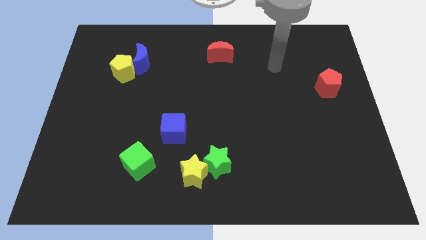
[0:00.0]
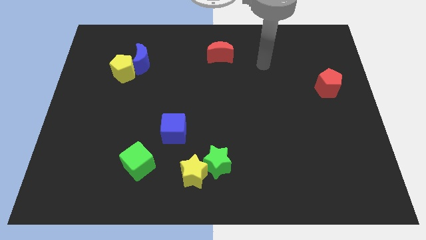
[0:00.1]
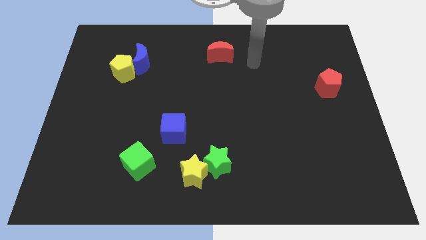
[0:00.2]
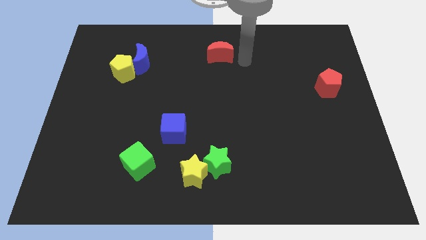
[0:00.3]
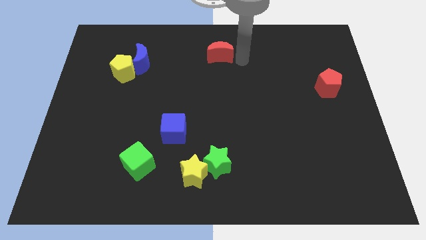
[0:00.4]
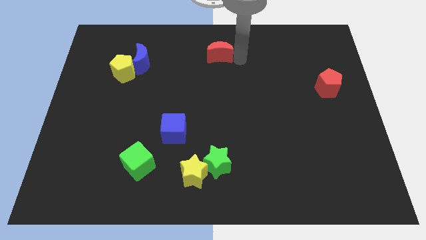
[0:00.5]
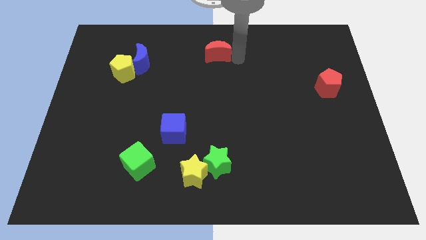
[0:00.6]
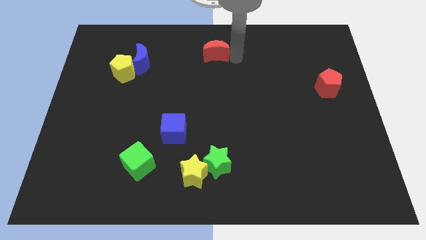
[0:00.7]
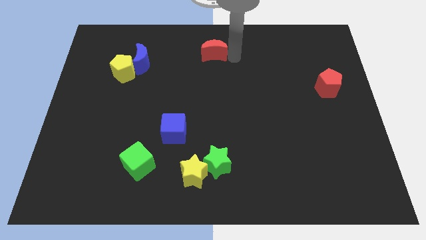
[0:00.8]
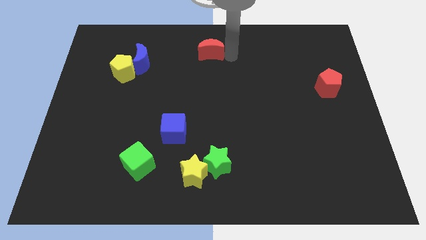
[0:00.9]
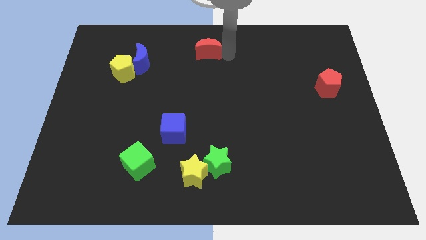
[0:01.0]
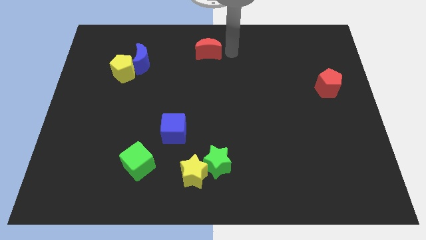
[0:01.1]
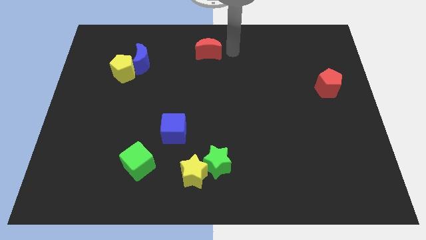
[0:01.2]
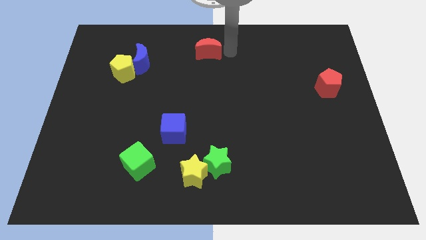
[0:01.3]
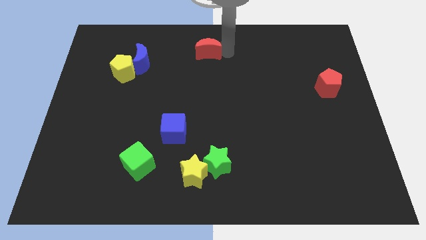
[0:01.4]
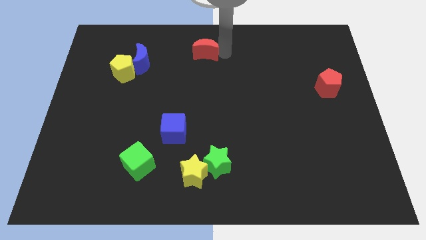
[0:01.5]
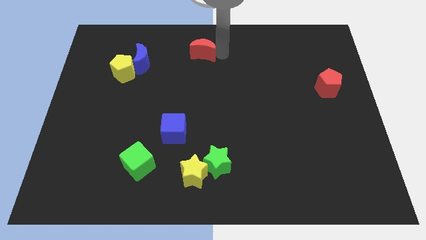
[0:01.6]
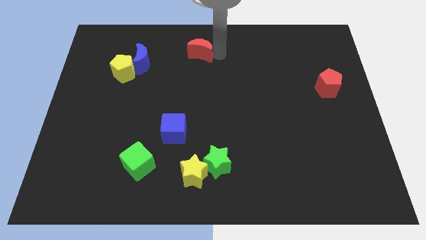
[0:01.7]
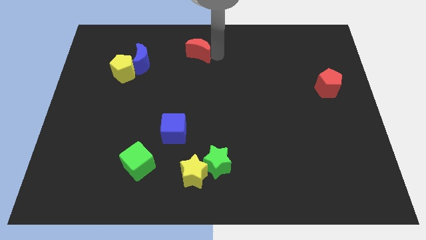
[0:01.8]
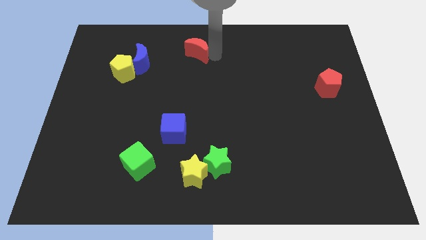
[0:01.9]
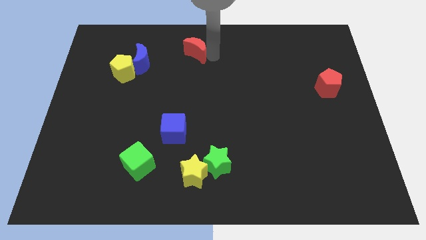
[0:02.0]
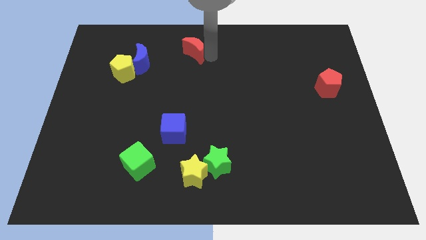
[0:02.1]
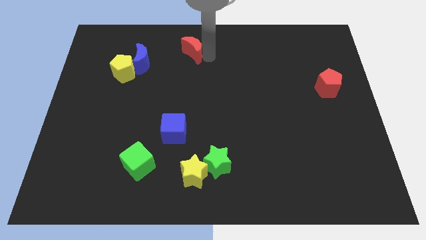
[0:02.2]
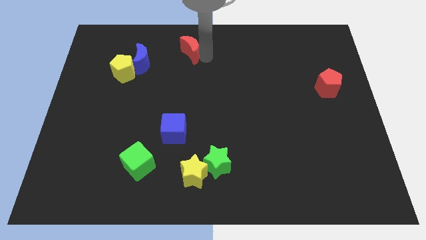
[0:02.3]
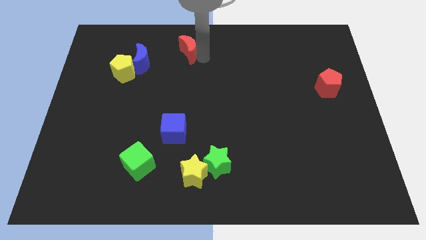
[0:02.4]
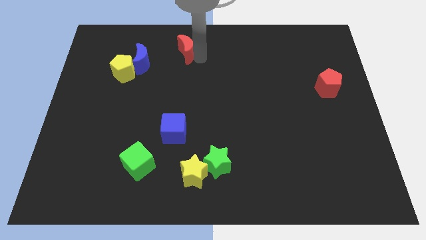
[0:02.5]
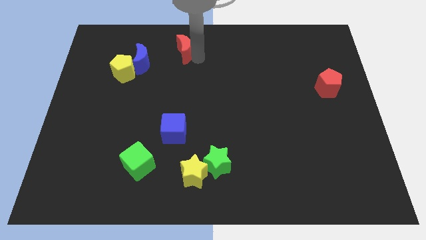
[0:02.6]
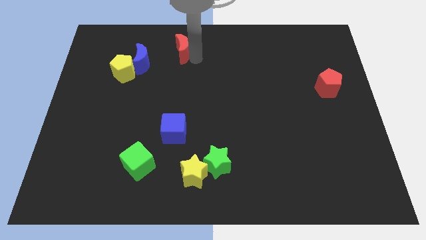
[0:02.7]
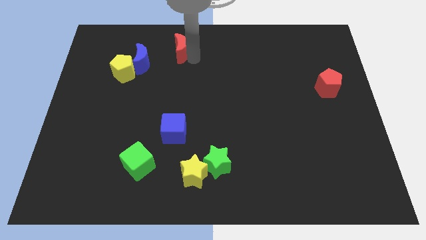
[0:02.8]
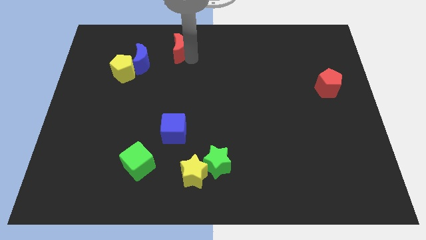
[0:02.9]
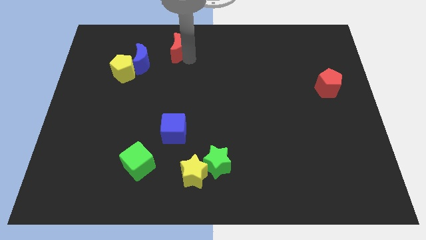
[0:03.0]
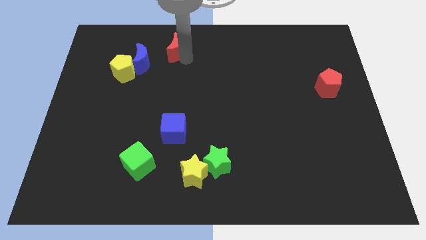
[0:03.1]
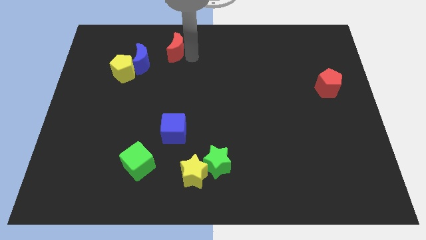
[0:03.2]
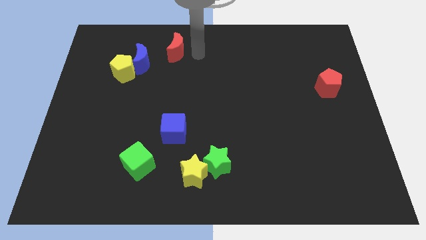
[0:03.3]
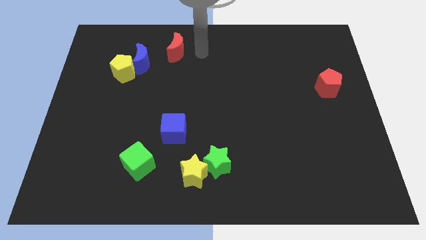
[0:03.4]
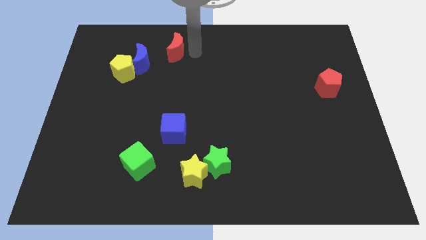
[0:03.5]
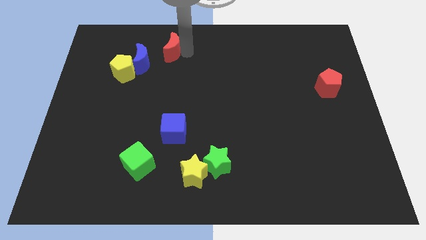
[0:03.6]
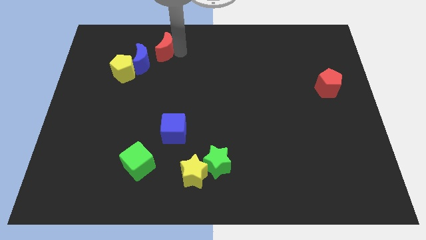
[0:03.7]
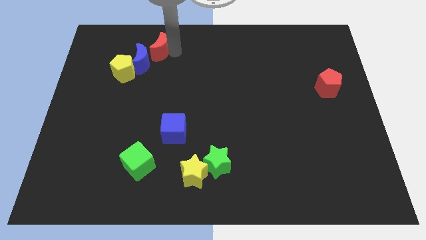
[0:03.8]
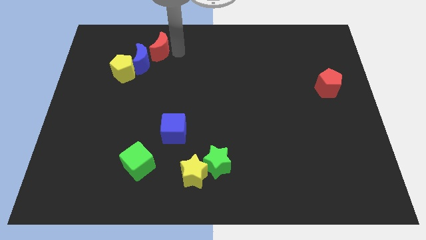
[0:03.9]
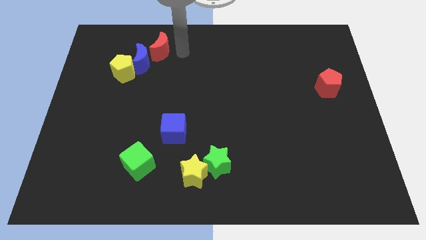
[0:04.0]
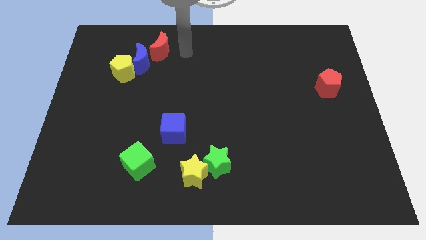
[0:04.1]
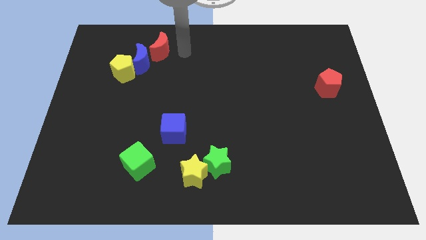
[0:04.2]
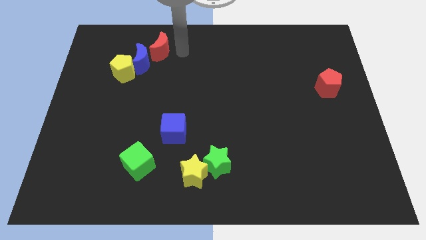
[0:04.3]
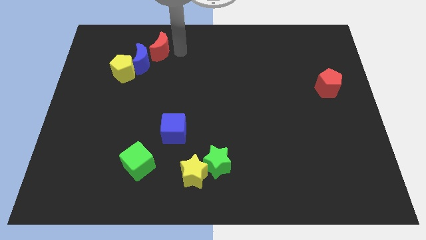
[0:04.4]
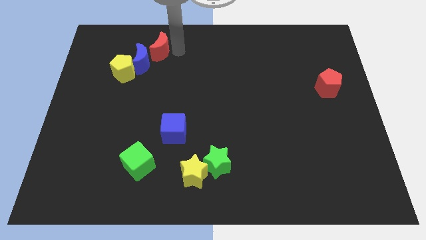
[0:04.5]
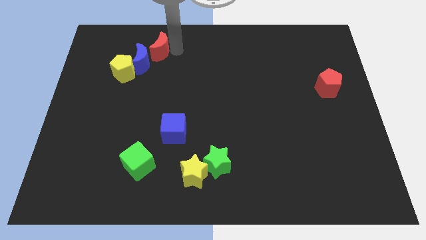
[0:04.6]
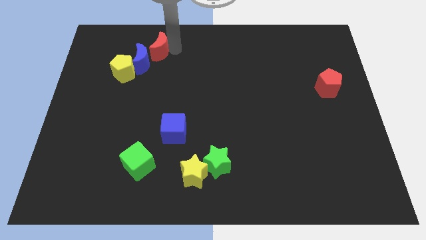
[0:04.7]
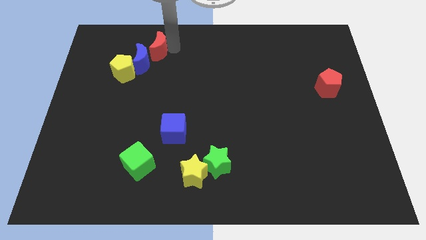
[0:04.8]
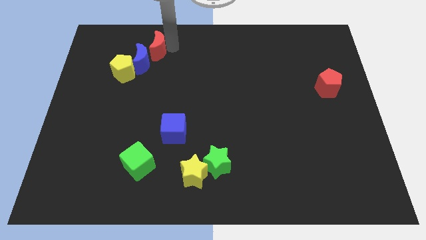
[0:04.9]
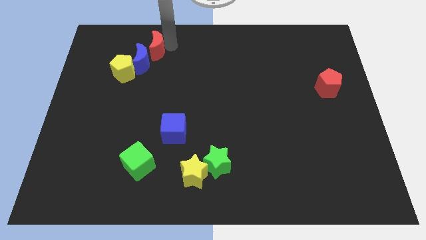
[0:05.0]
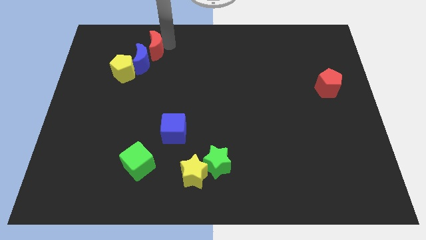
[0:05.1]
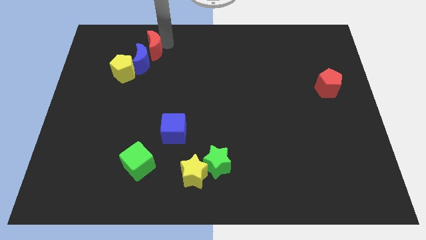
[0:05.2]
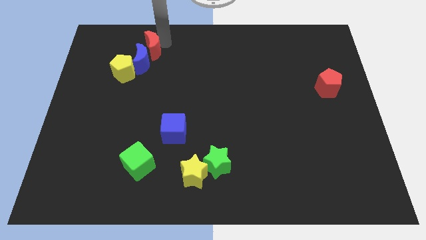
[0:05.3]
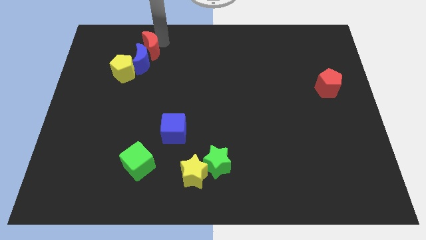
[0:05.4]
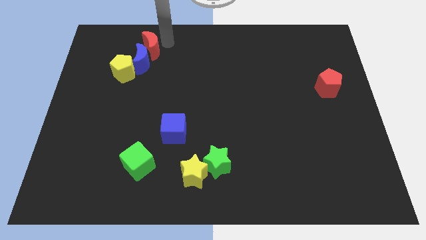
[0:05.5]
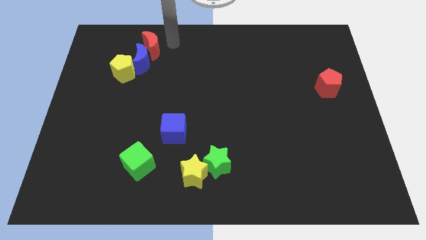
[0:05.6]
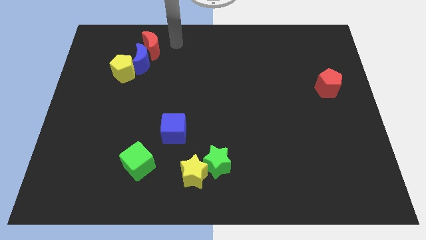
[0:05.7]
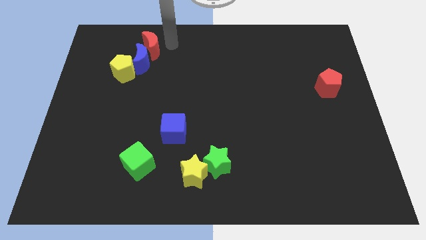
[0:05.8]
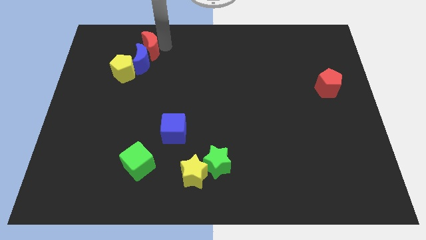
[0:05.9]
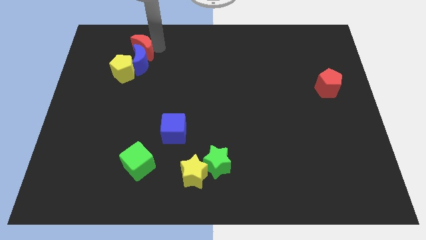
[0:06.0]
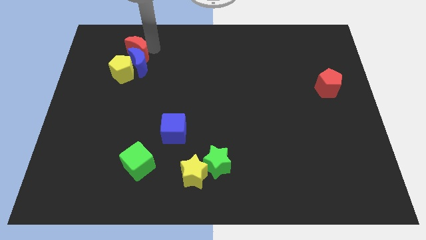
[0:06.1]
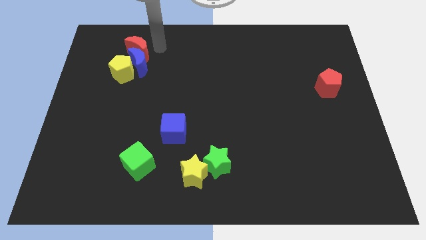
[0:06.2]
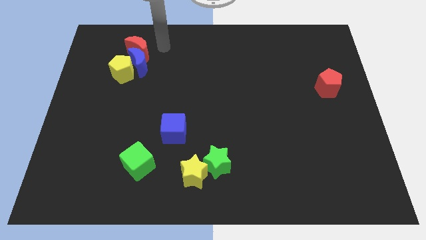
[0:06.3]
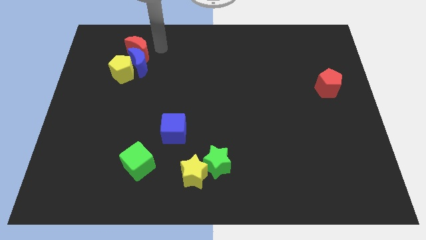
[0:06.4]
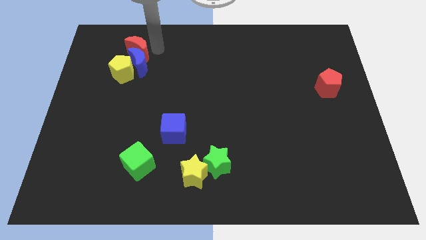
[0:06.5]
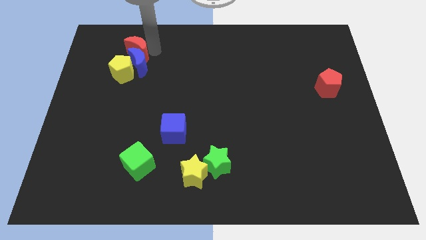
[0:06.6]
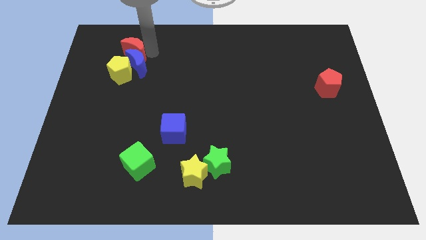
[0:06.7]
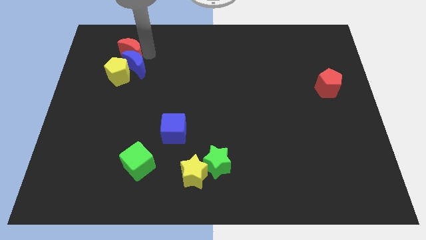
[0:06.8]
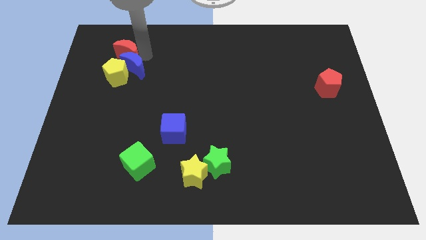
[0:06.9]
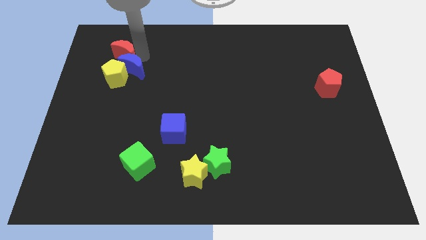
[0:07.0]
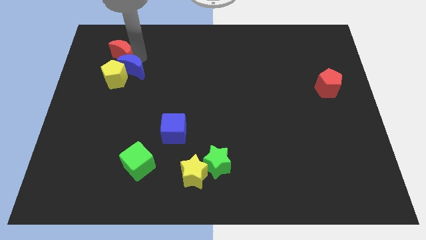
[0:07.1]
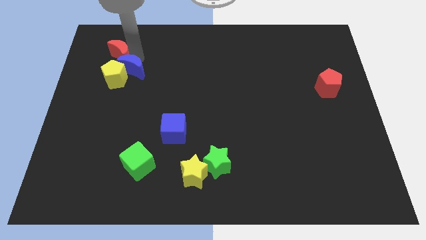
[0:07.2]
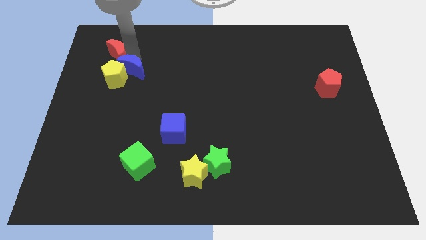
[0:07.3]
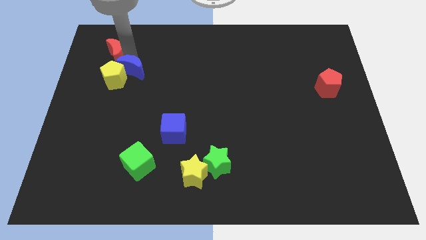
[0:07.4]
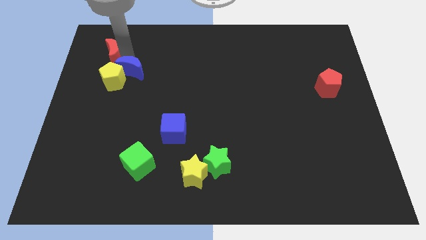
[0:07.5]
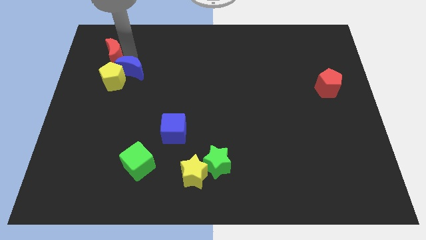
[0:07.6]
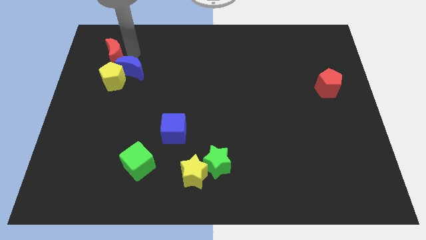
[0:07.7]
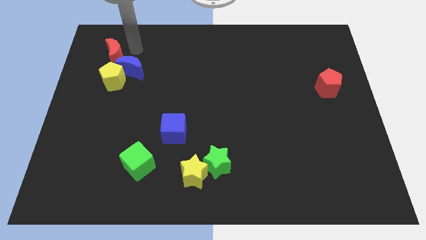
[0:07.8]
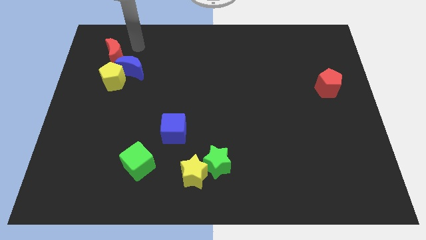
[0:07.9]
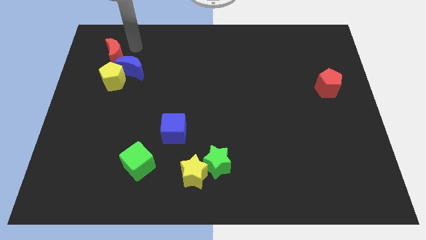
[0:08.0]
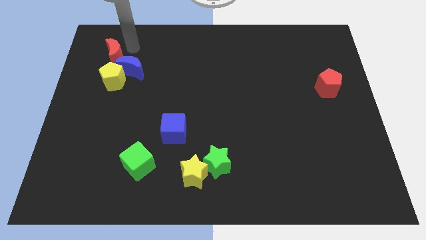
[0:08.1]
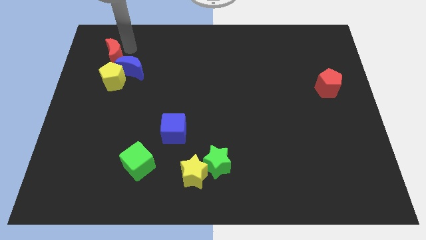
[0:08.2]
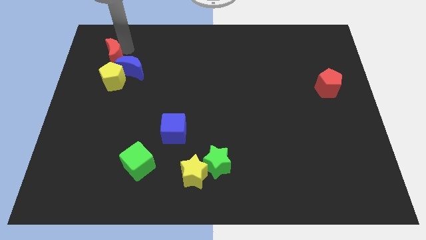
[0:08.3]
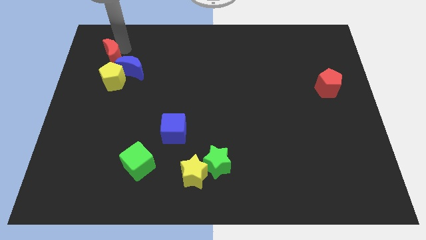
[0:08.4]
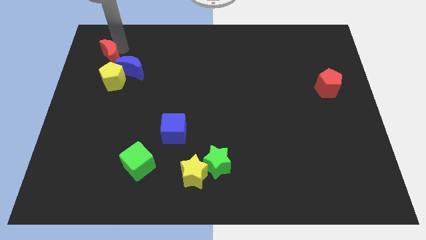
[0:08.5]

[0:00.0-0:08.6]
put the red moon to the top left side of the yellow pentagon

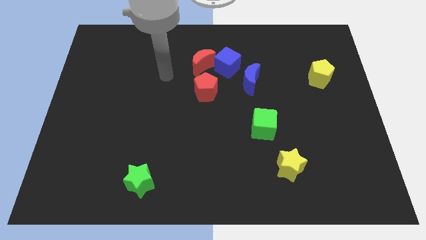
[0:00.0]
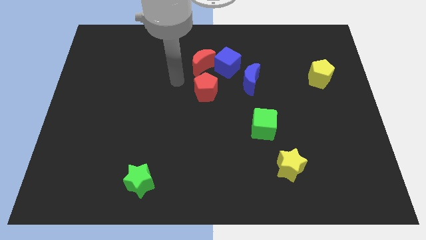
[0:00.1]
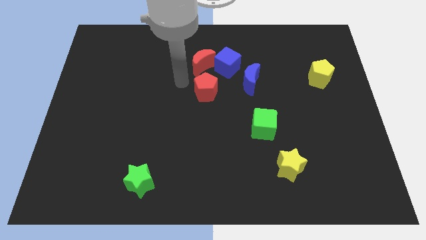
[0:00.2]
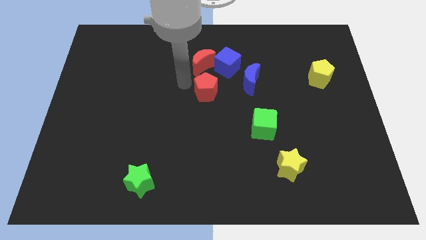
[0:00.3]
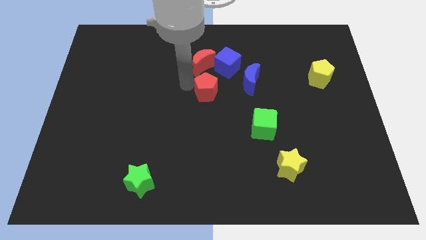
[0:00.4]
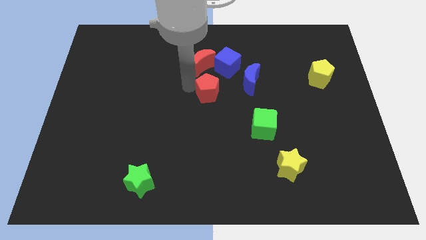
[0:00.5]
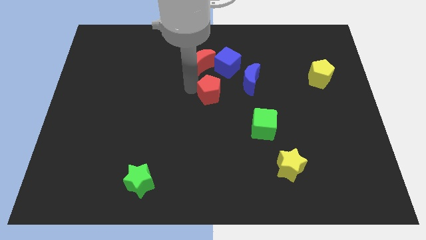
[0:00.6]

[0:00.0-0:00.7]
put the red pentagon to the bottom left of the blue moon
